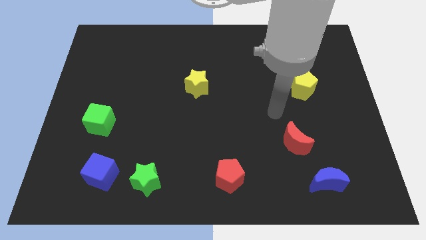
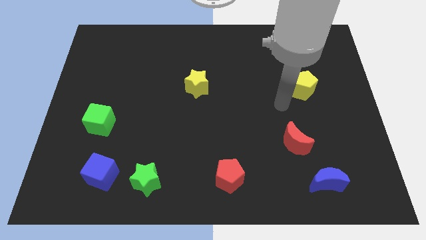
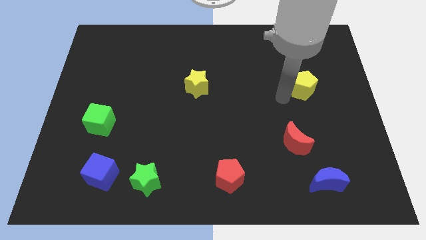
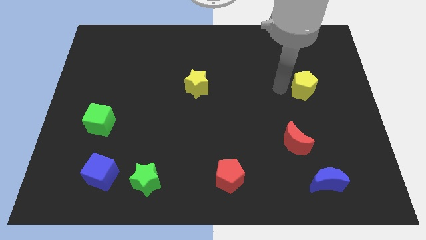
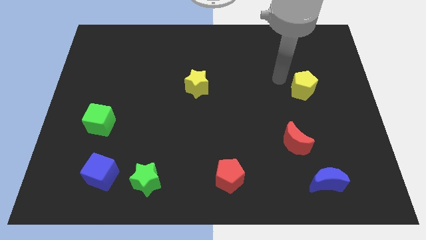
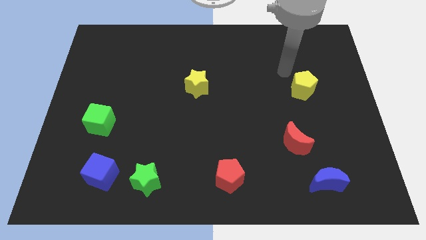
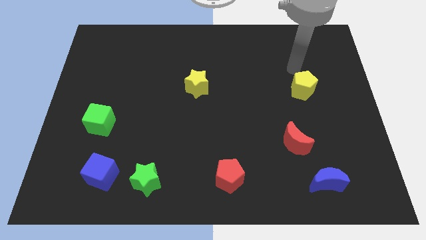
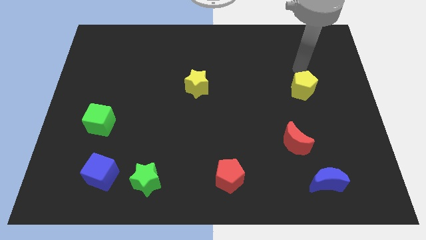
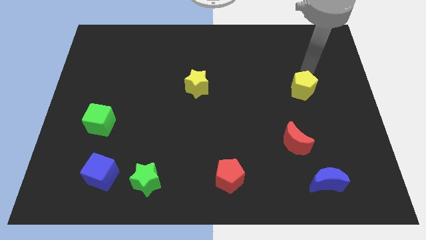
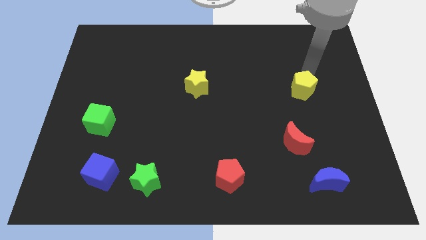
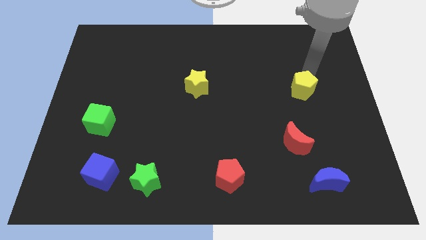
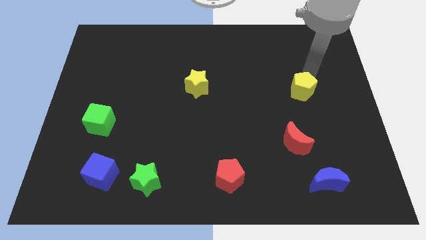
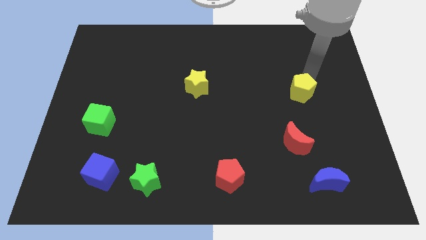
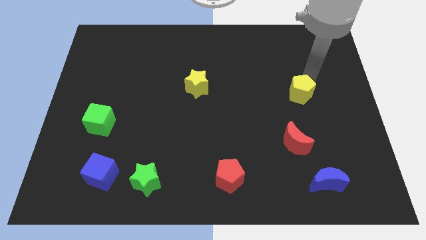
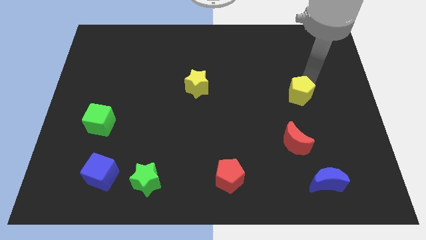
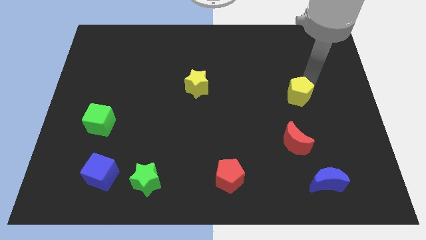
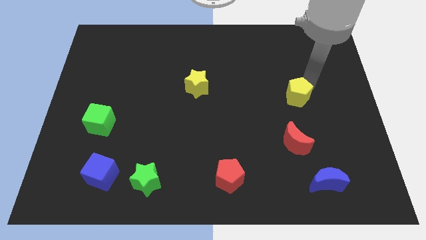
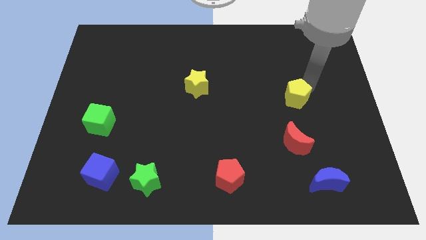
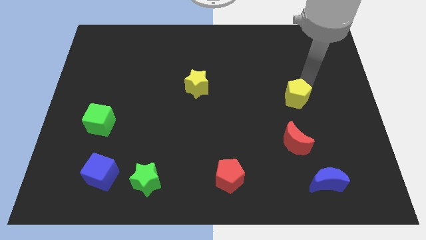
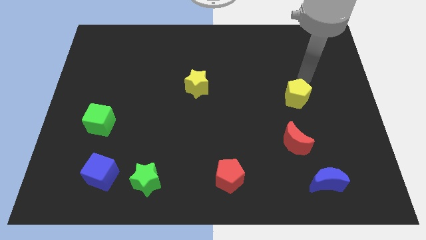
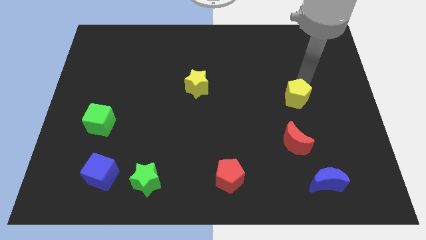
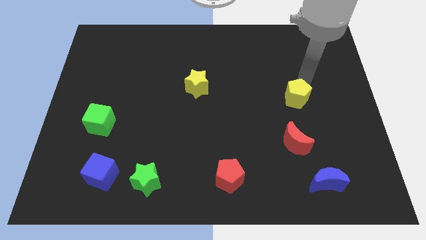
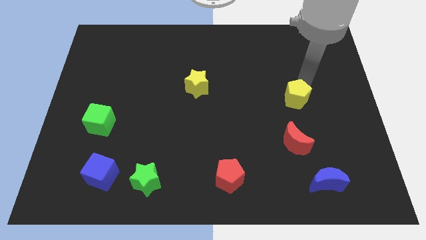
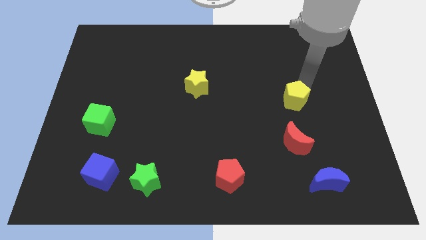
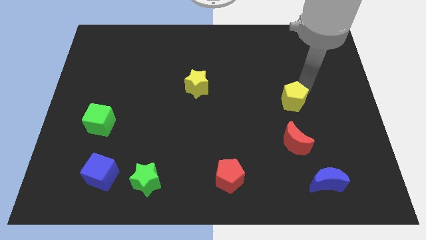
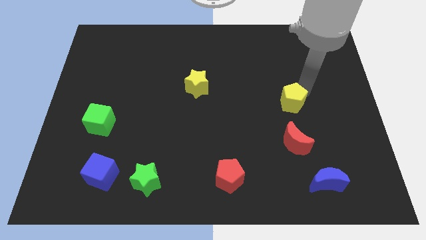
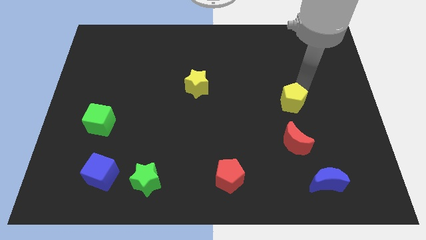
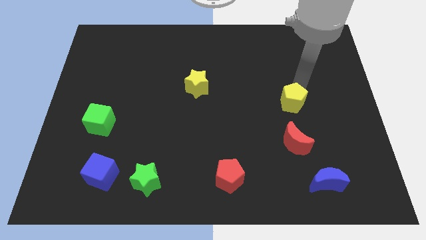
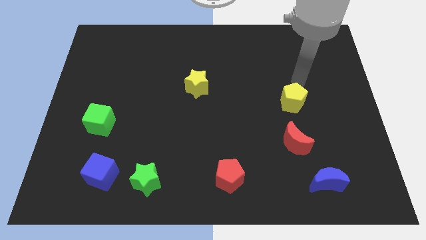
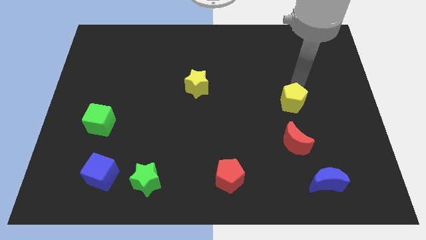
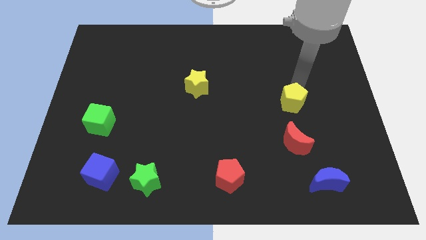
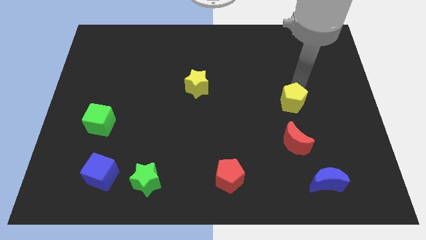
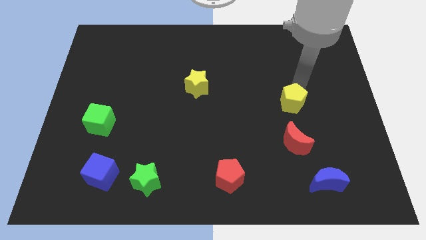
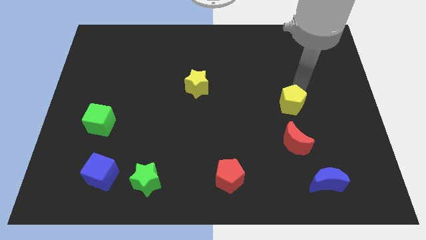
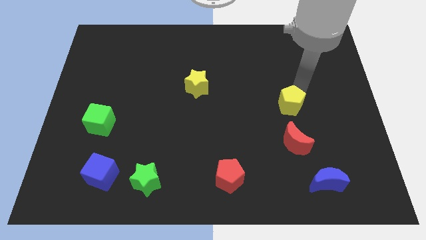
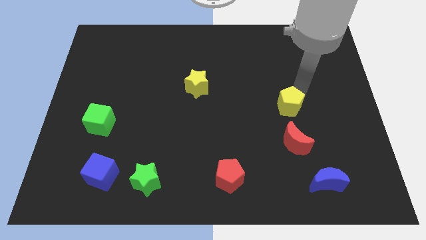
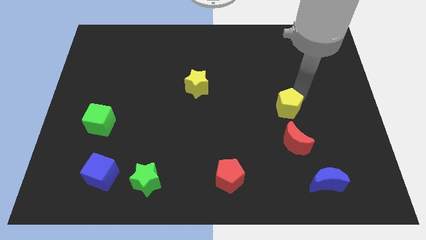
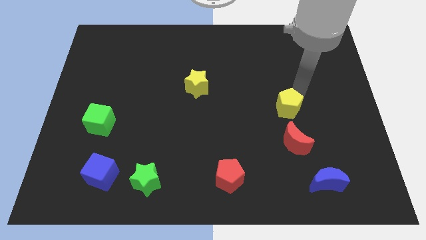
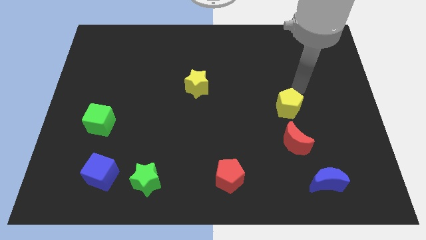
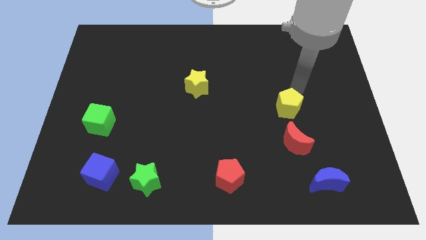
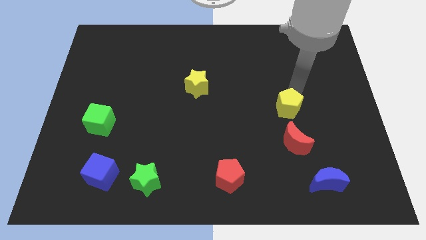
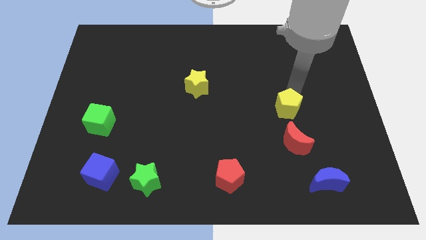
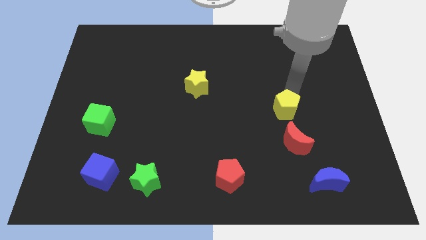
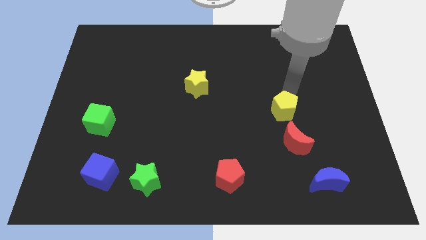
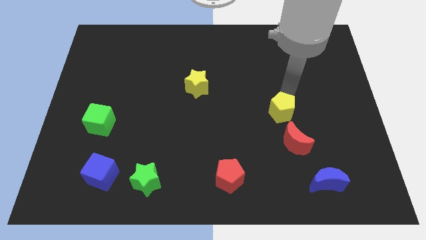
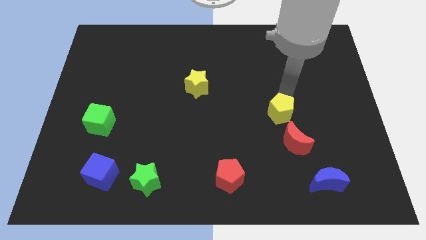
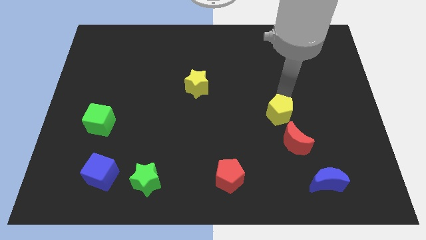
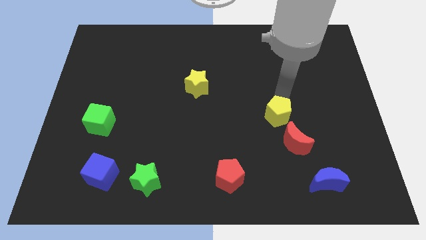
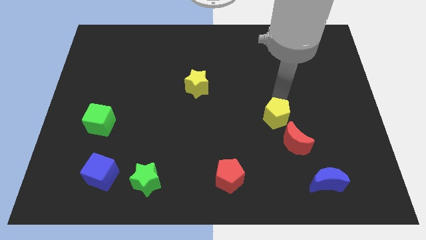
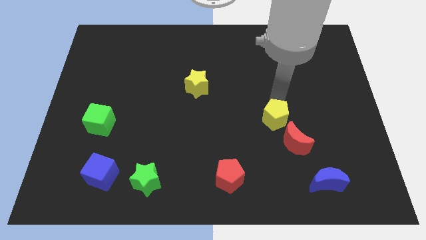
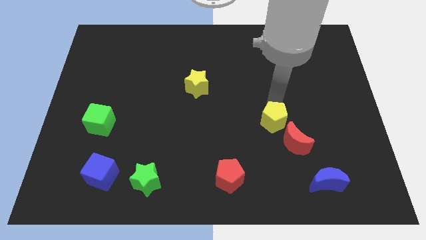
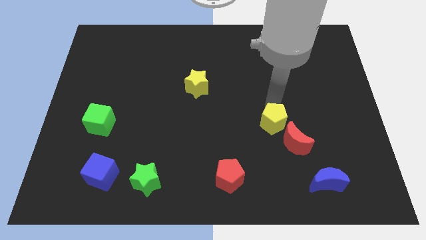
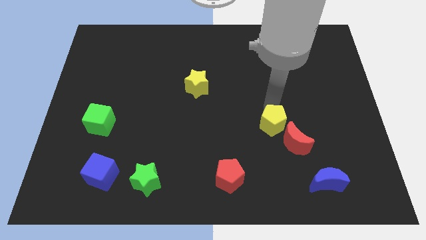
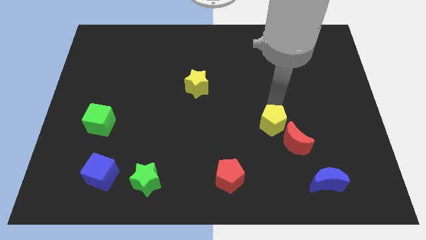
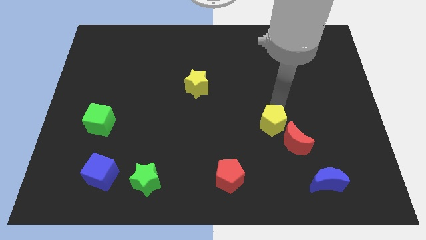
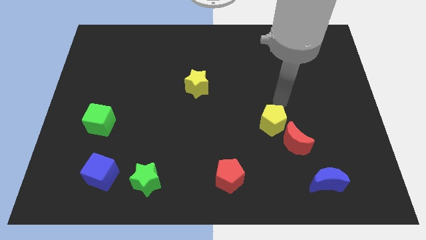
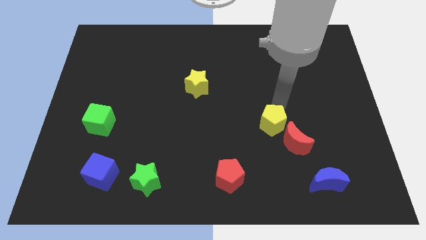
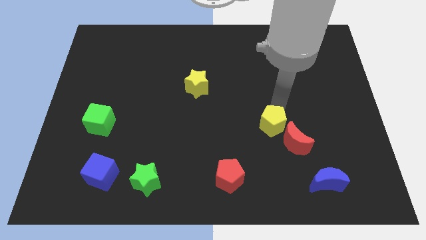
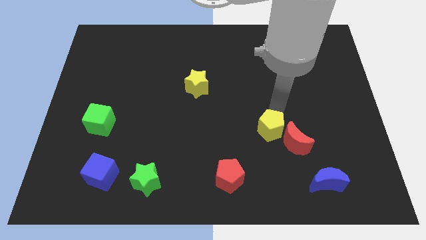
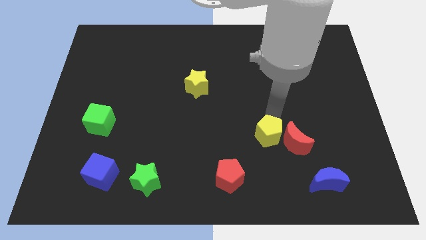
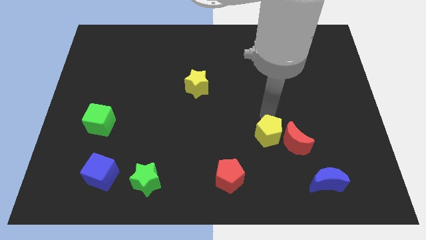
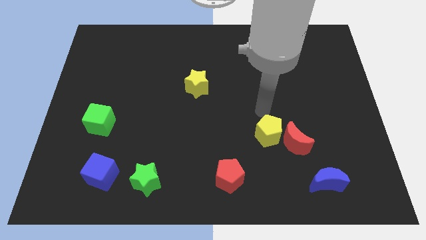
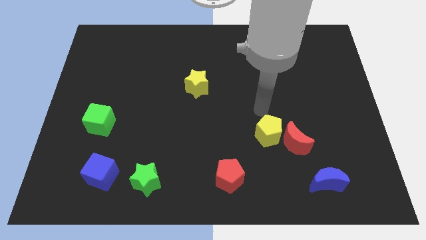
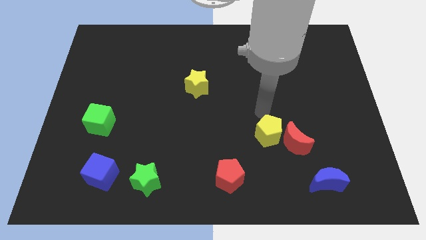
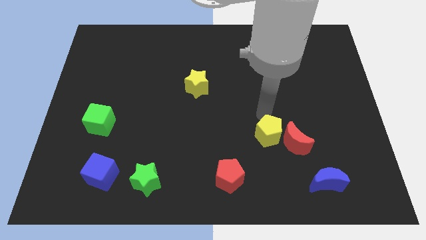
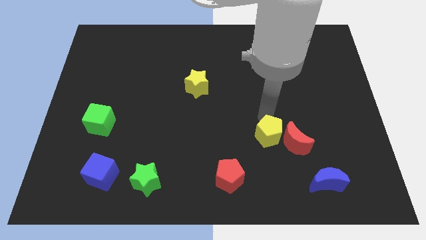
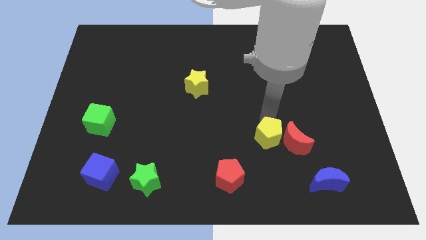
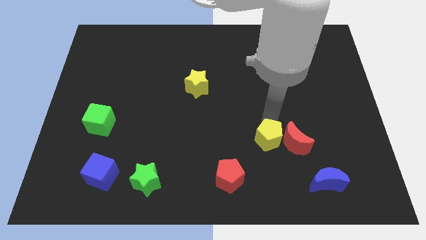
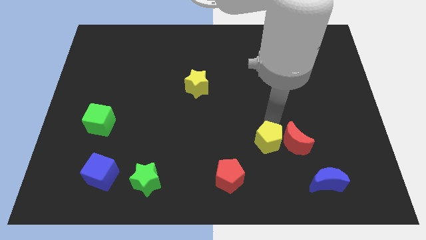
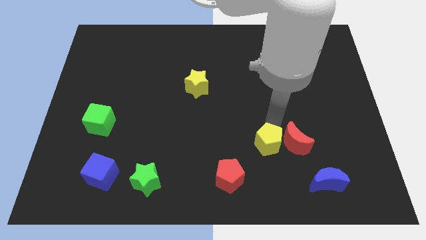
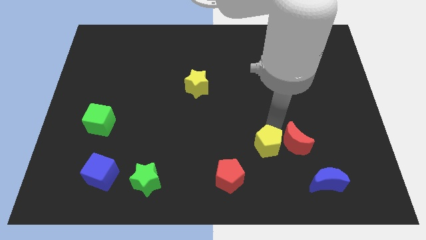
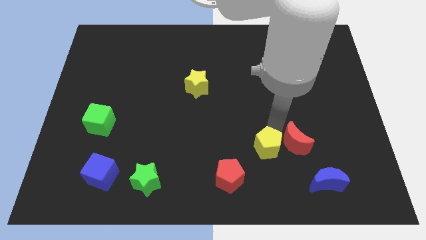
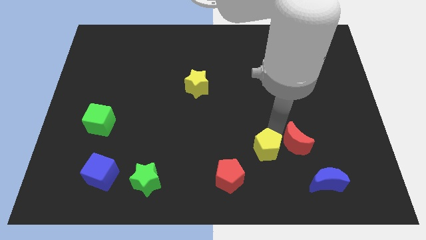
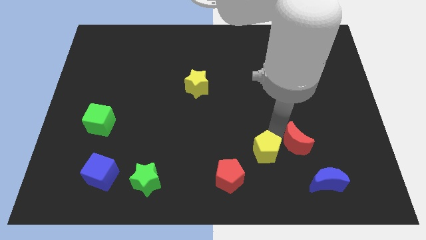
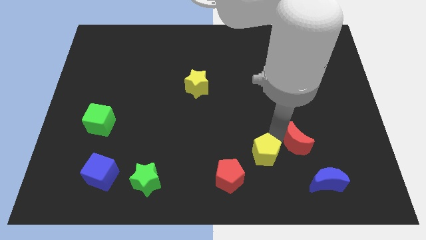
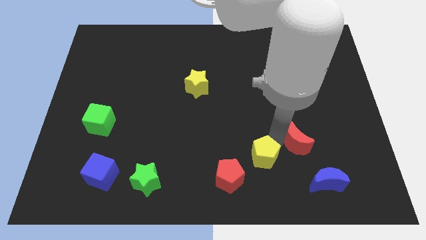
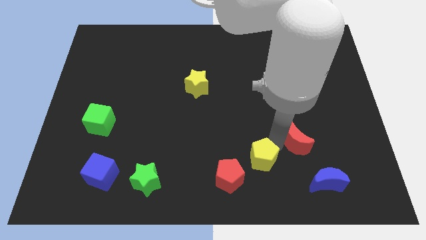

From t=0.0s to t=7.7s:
move the yellow pentagon right of the red pentagon
